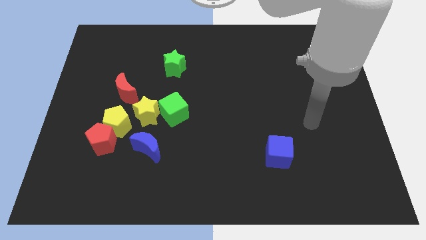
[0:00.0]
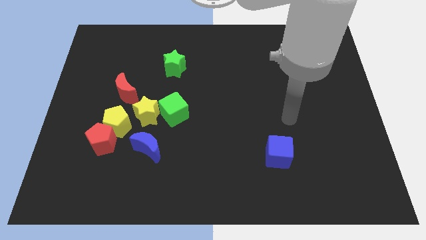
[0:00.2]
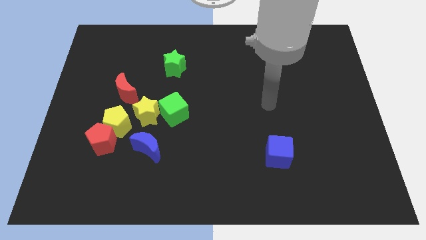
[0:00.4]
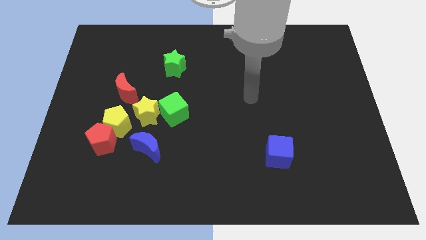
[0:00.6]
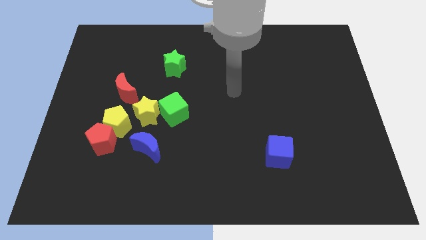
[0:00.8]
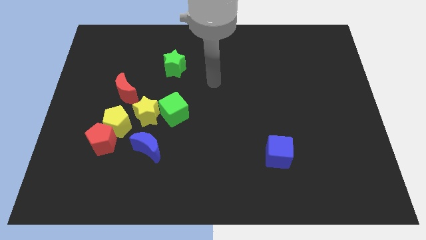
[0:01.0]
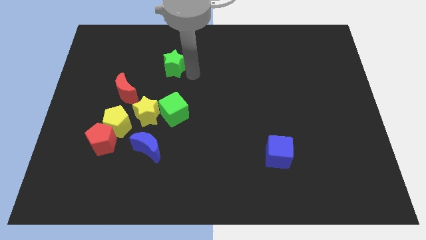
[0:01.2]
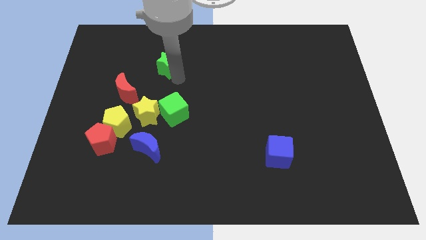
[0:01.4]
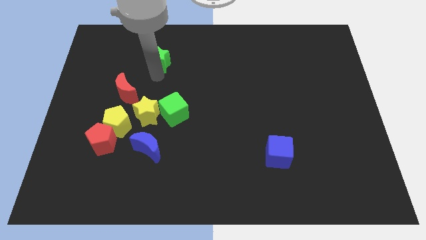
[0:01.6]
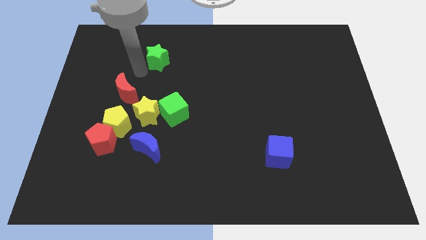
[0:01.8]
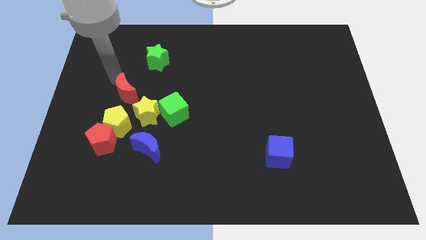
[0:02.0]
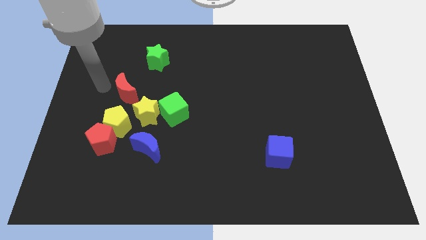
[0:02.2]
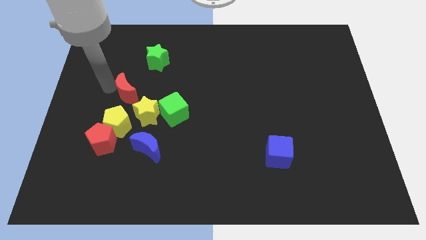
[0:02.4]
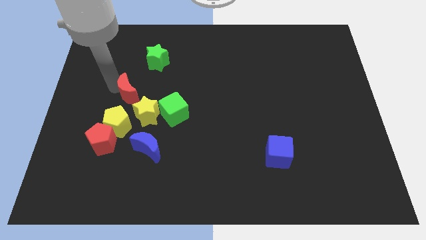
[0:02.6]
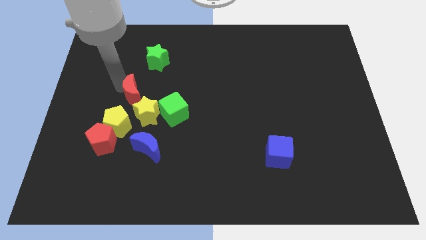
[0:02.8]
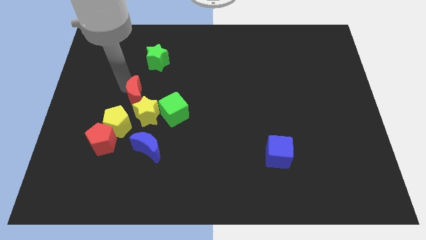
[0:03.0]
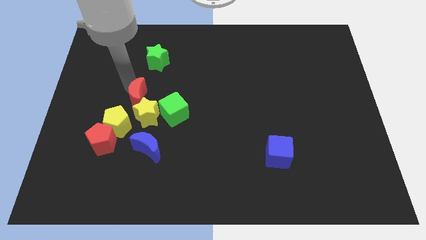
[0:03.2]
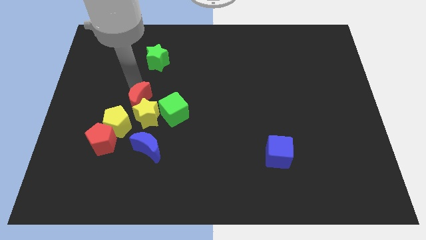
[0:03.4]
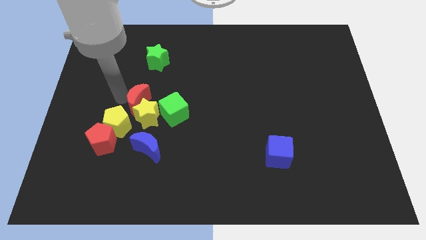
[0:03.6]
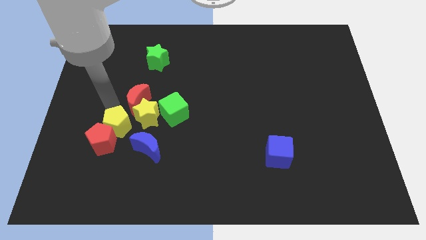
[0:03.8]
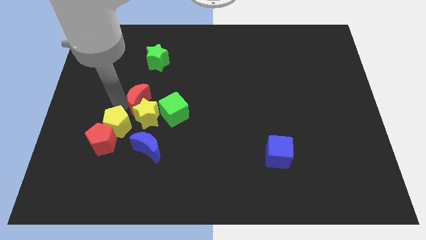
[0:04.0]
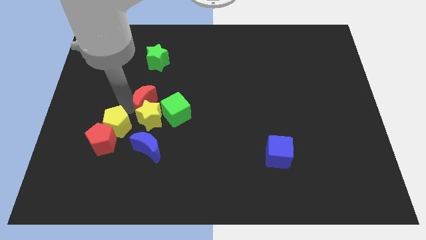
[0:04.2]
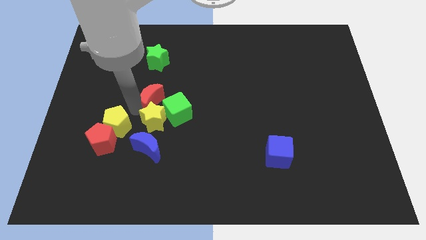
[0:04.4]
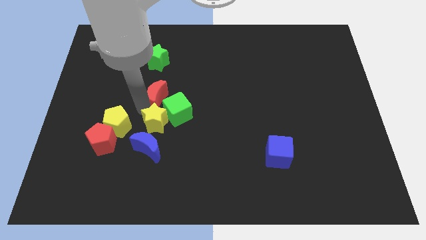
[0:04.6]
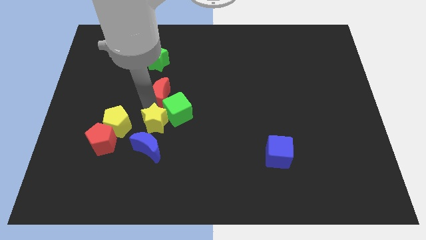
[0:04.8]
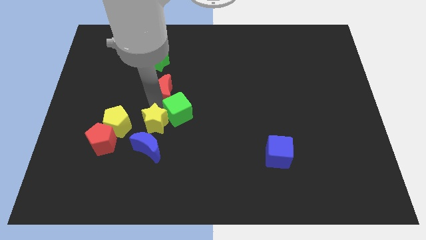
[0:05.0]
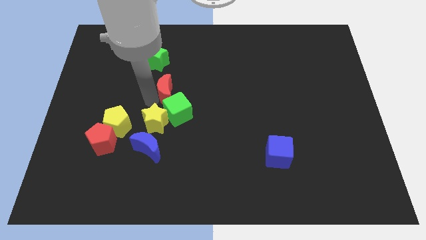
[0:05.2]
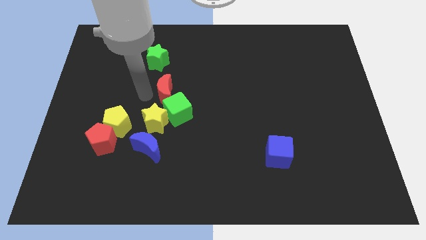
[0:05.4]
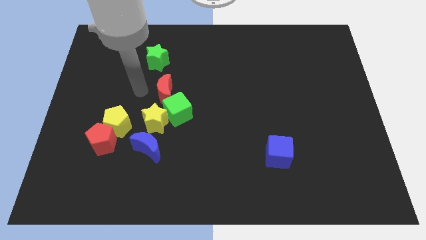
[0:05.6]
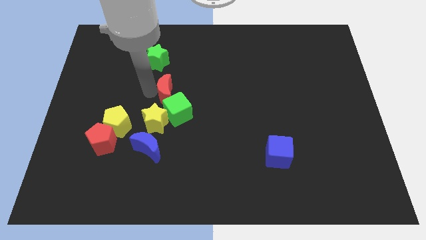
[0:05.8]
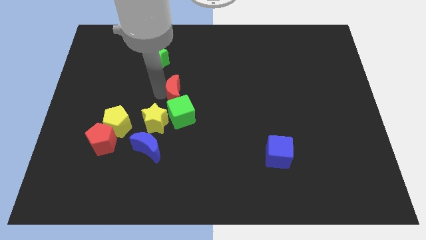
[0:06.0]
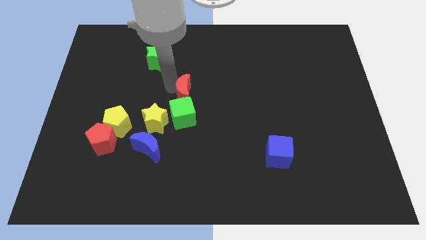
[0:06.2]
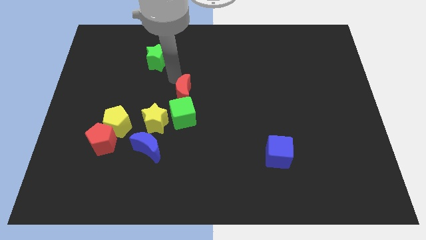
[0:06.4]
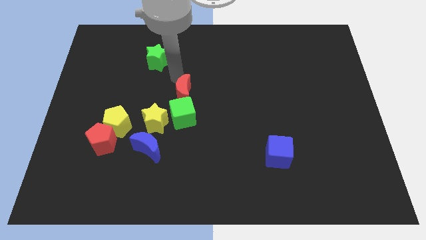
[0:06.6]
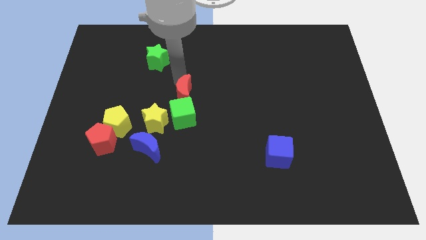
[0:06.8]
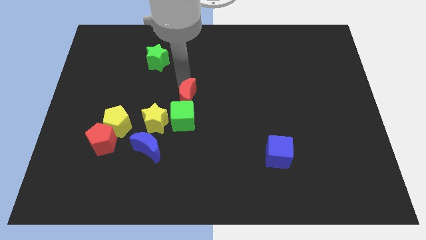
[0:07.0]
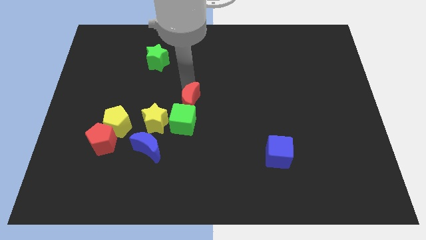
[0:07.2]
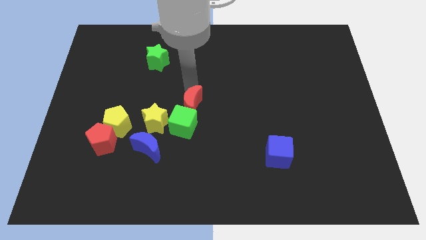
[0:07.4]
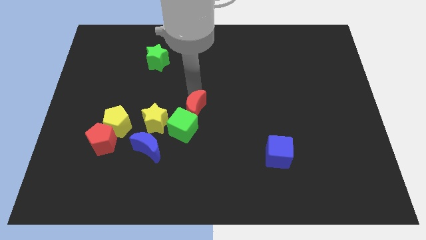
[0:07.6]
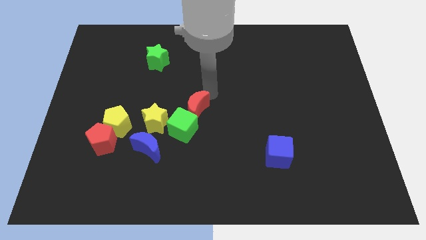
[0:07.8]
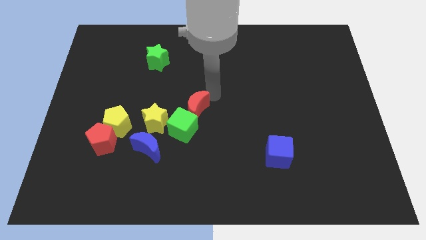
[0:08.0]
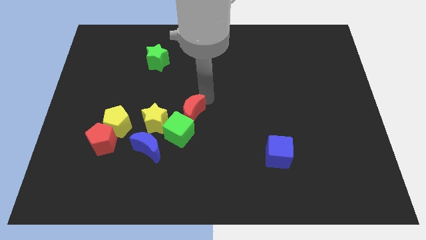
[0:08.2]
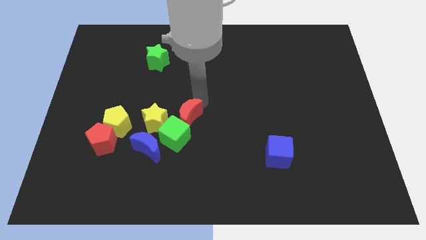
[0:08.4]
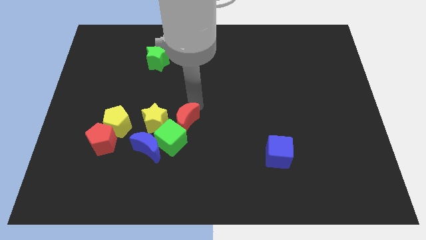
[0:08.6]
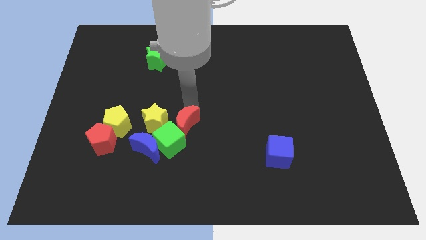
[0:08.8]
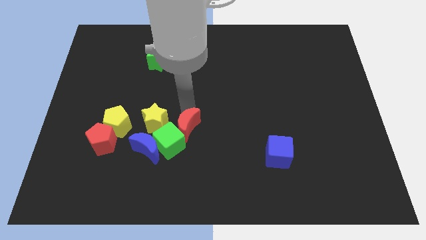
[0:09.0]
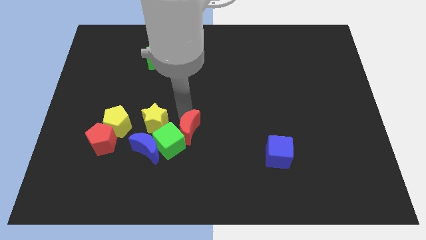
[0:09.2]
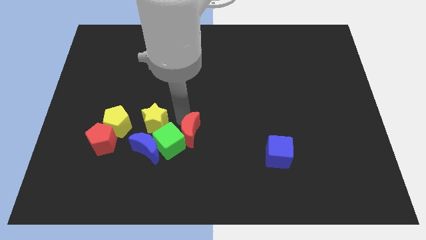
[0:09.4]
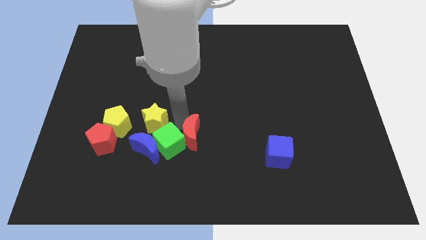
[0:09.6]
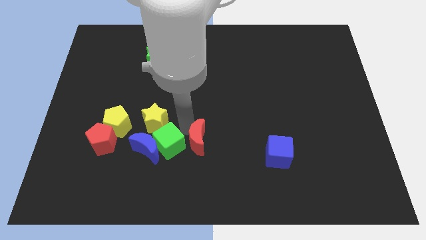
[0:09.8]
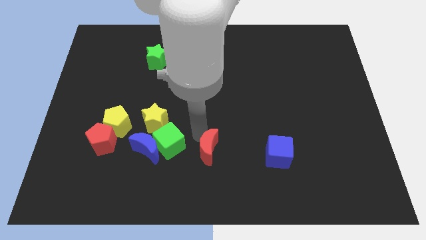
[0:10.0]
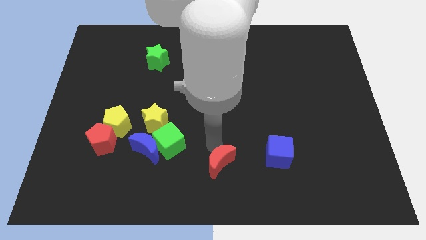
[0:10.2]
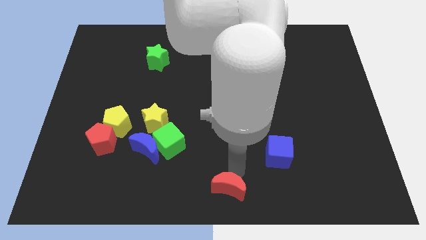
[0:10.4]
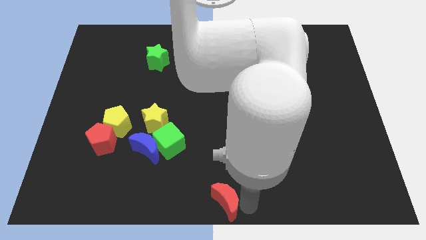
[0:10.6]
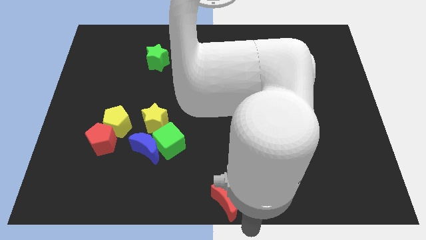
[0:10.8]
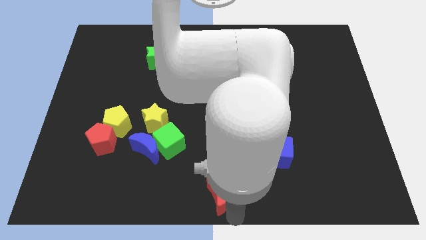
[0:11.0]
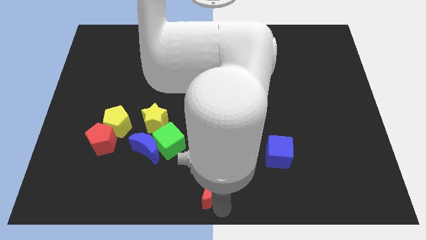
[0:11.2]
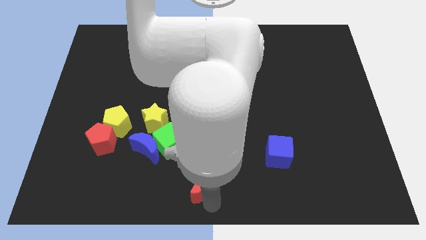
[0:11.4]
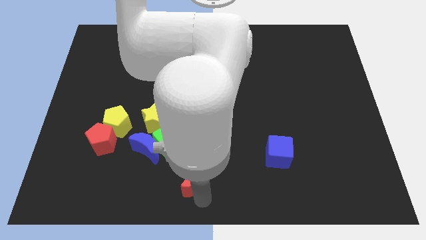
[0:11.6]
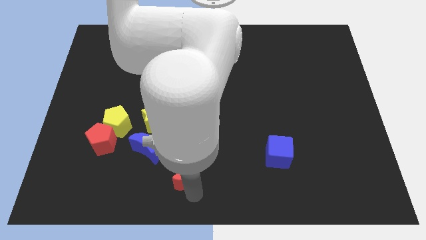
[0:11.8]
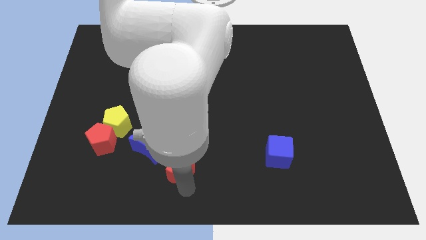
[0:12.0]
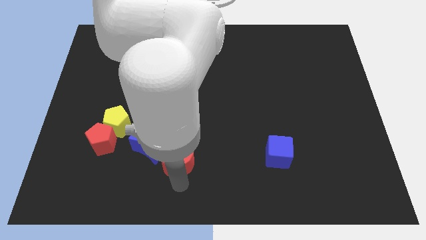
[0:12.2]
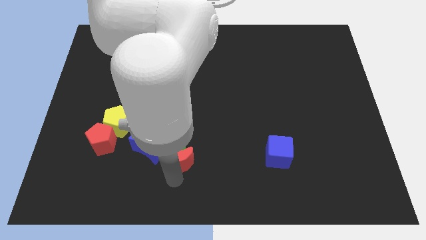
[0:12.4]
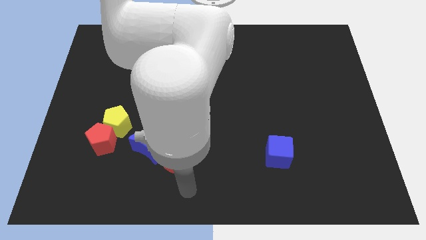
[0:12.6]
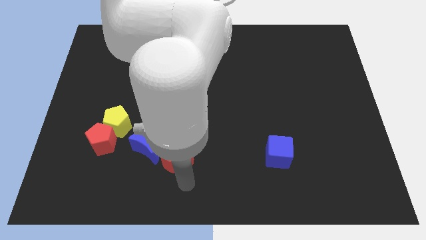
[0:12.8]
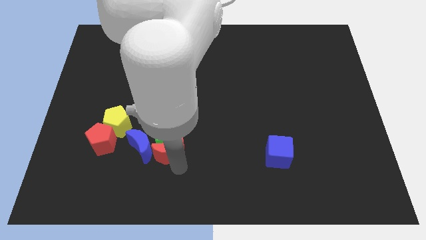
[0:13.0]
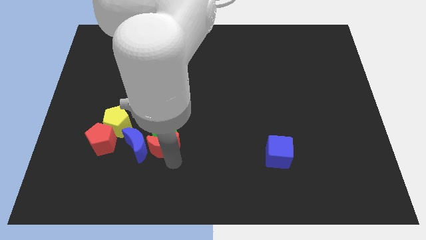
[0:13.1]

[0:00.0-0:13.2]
put the red moon diagonally down and to the left of the green cube
